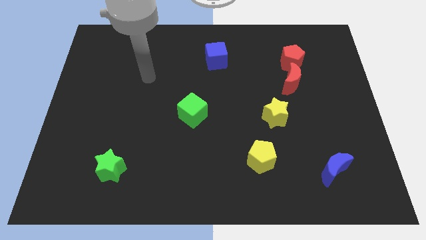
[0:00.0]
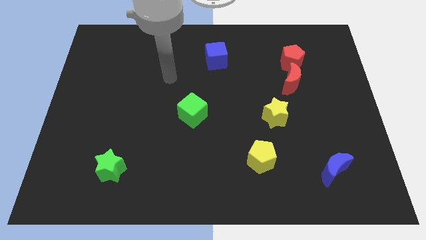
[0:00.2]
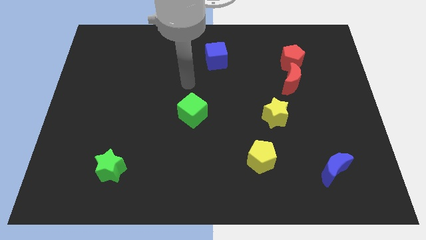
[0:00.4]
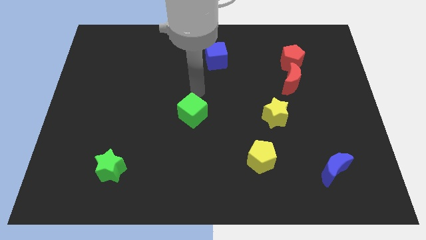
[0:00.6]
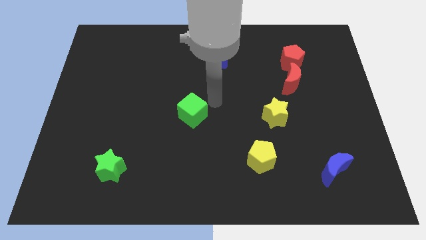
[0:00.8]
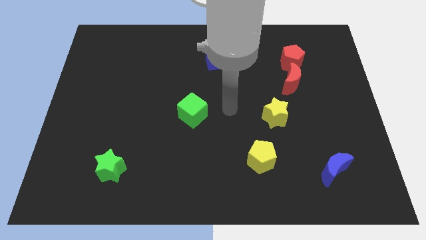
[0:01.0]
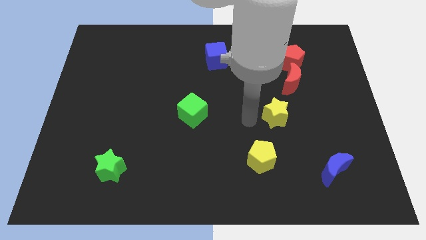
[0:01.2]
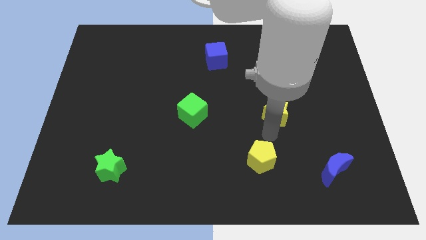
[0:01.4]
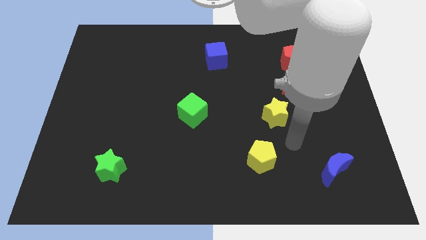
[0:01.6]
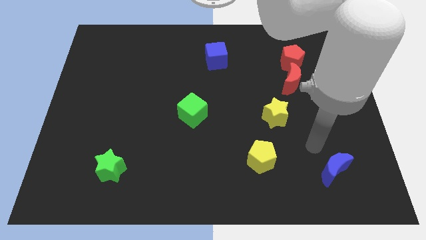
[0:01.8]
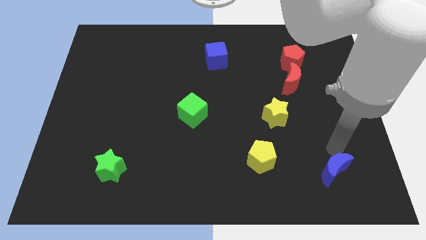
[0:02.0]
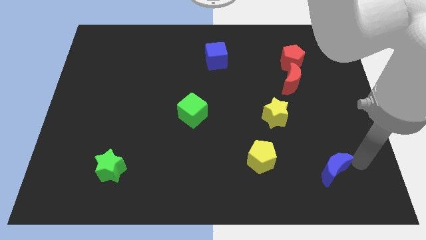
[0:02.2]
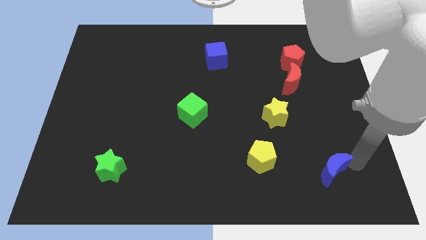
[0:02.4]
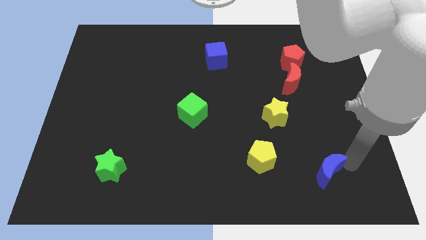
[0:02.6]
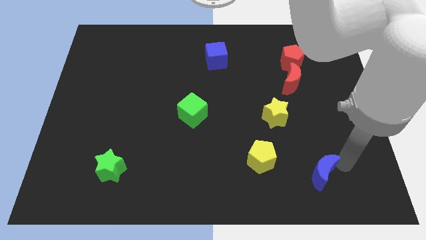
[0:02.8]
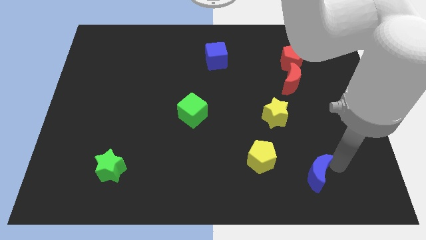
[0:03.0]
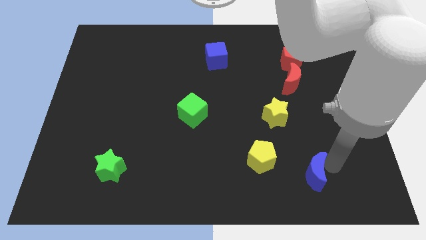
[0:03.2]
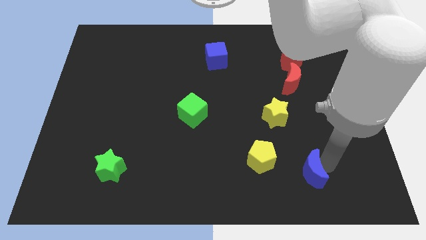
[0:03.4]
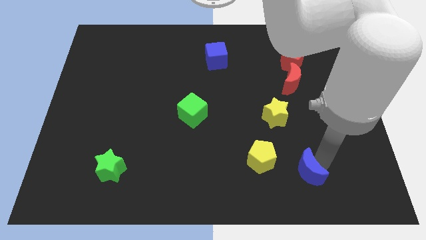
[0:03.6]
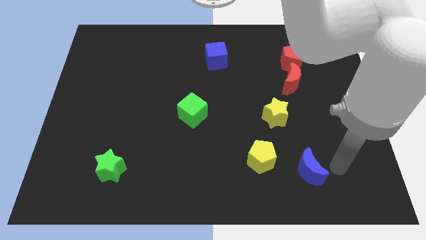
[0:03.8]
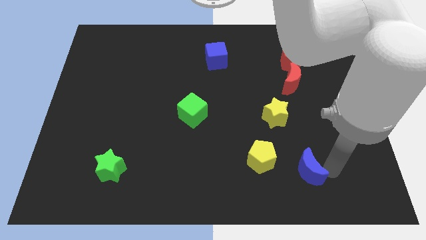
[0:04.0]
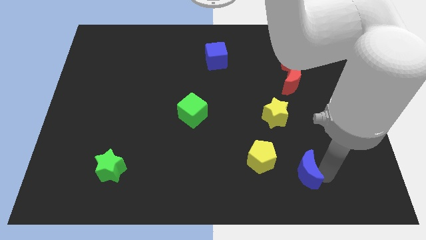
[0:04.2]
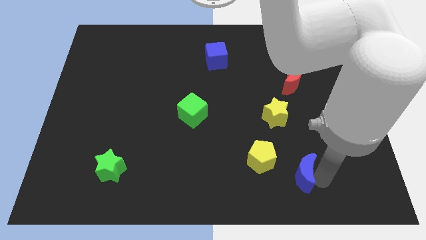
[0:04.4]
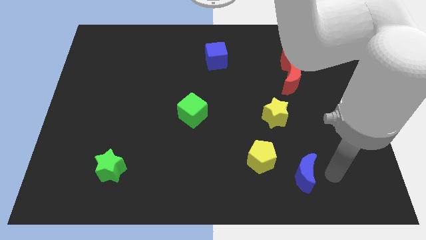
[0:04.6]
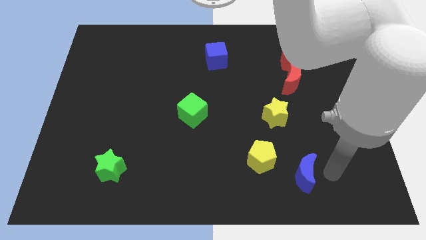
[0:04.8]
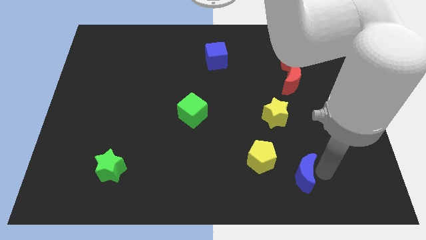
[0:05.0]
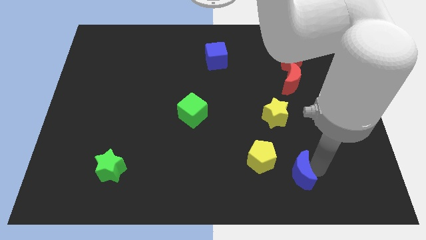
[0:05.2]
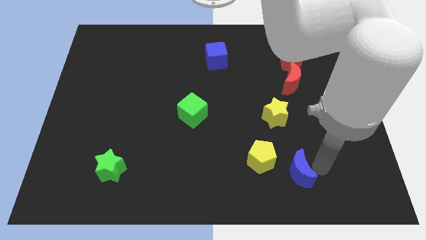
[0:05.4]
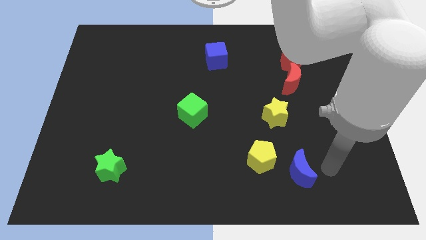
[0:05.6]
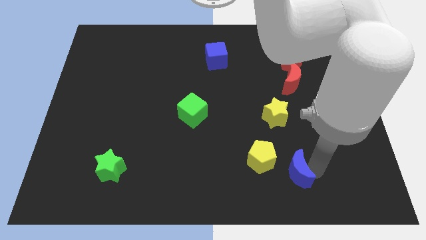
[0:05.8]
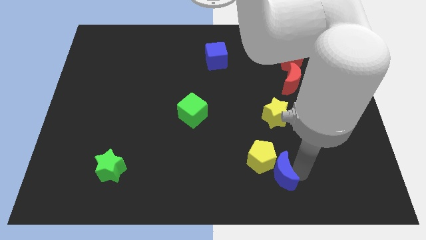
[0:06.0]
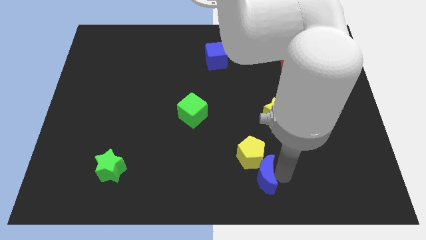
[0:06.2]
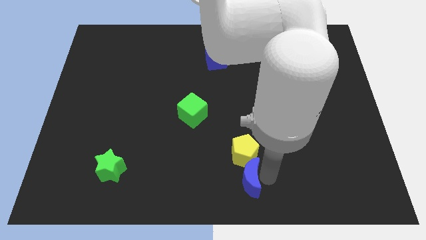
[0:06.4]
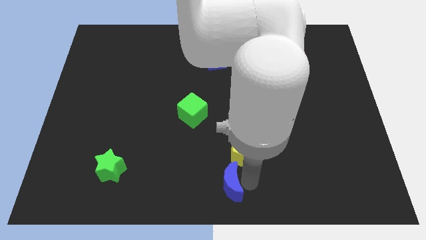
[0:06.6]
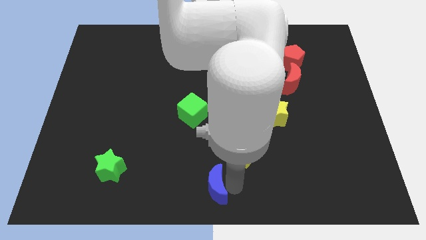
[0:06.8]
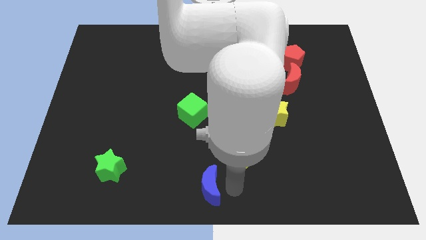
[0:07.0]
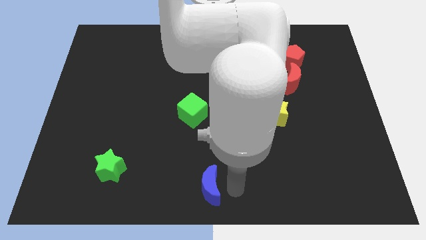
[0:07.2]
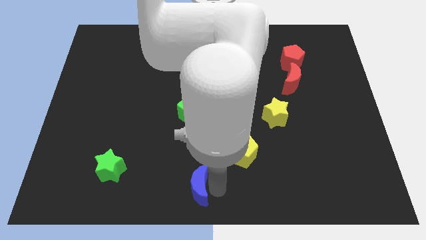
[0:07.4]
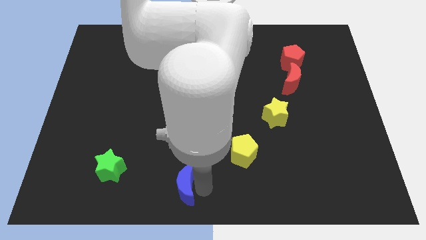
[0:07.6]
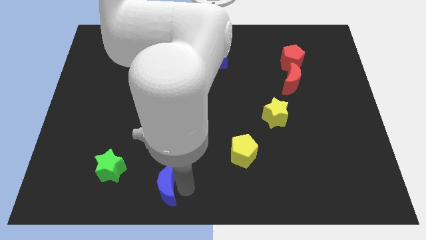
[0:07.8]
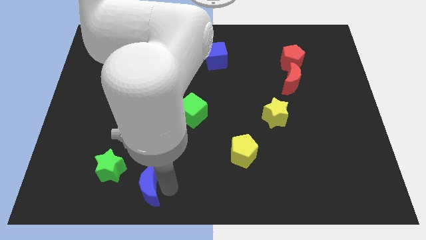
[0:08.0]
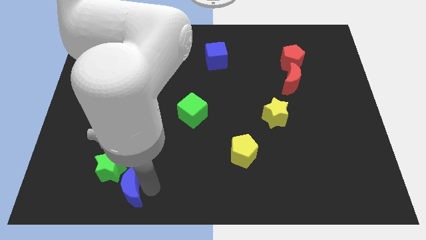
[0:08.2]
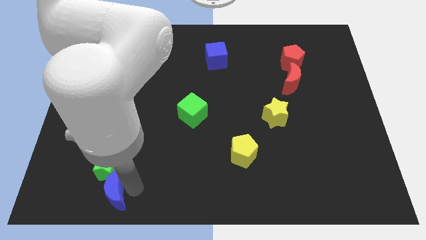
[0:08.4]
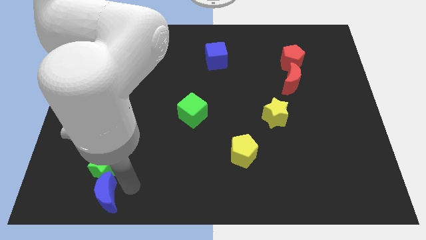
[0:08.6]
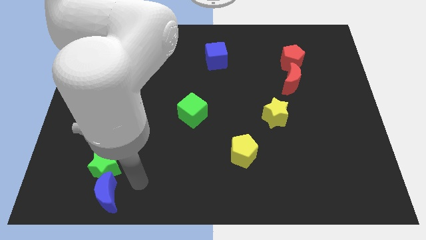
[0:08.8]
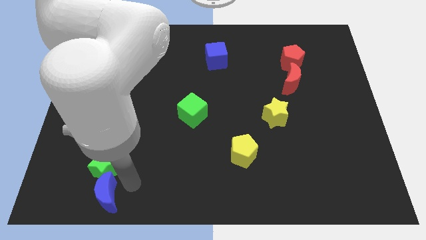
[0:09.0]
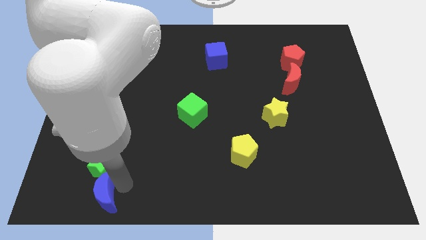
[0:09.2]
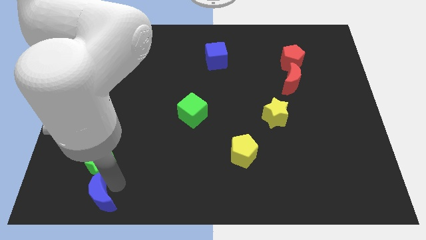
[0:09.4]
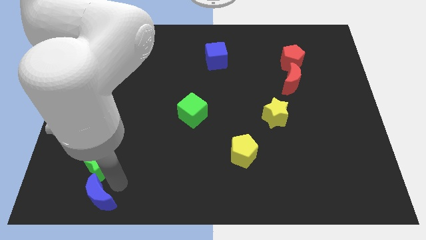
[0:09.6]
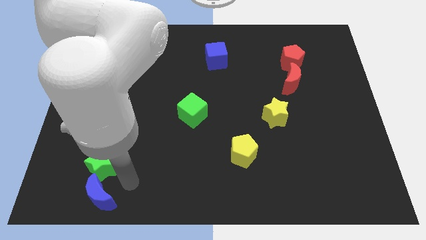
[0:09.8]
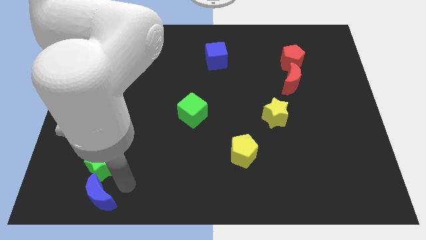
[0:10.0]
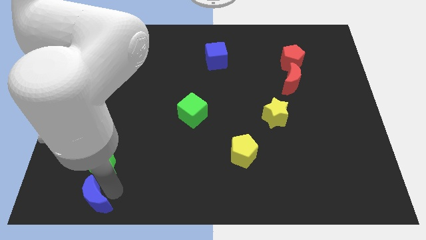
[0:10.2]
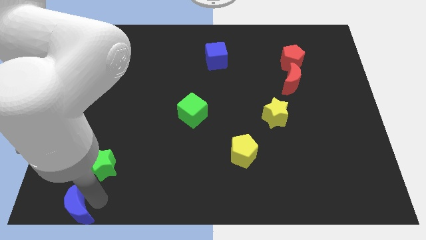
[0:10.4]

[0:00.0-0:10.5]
put the blue moon to the bottom left
